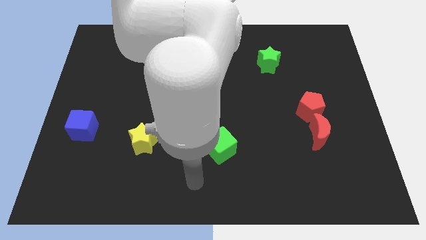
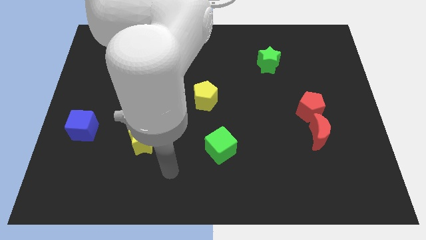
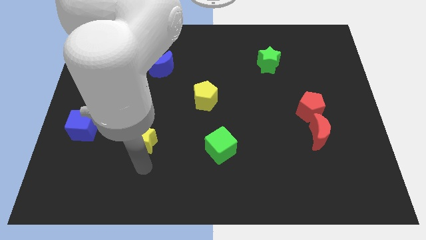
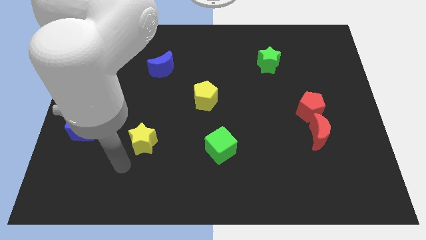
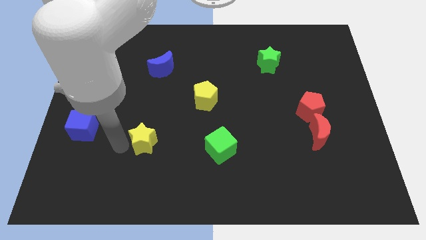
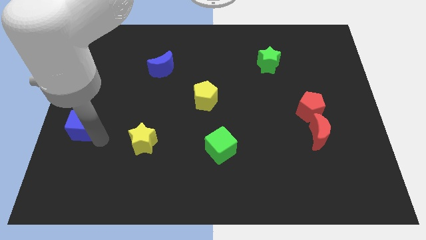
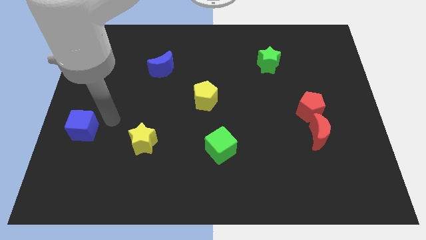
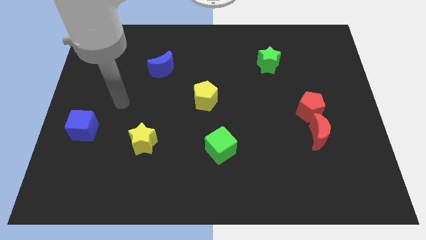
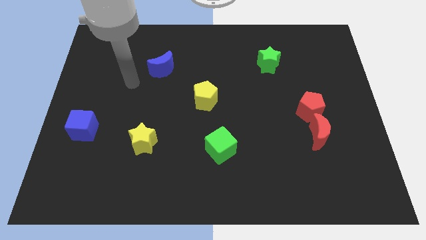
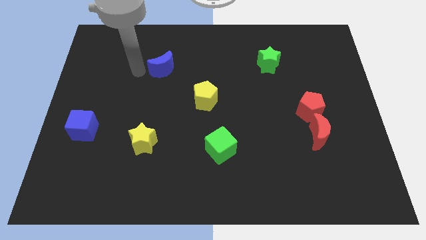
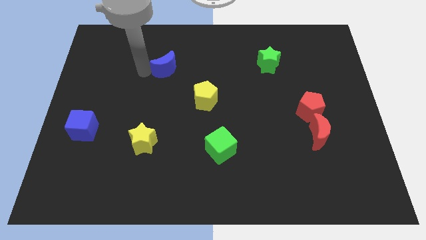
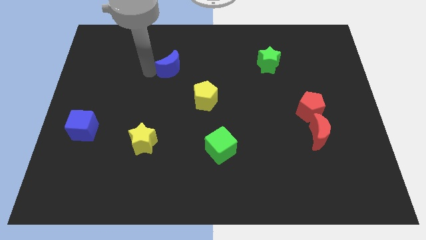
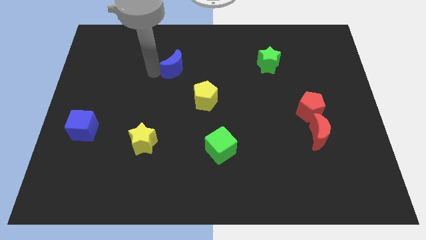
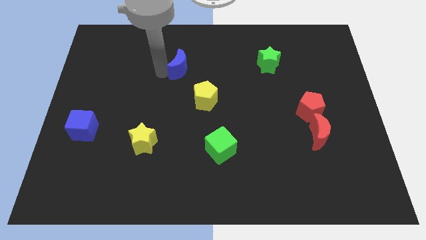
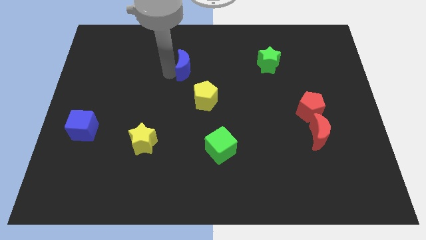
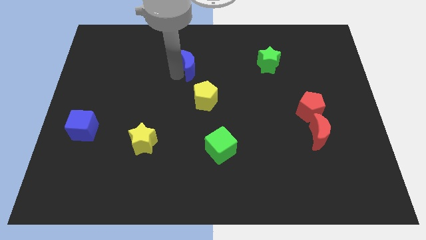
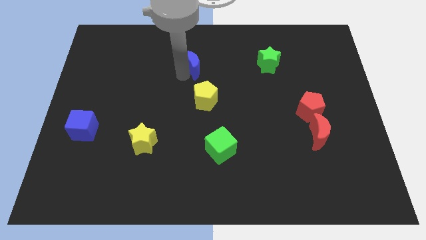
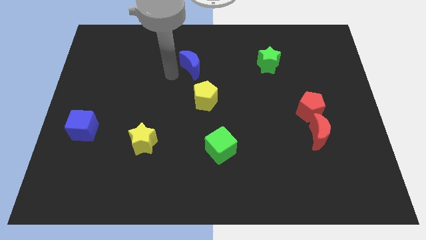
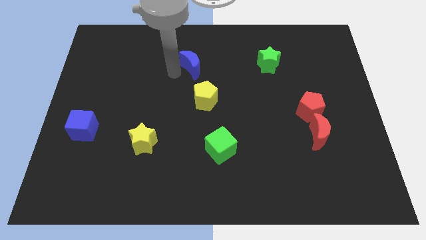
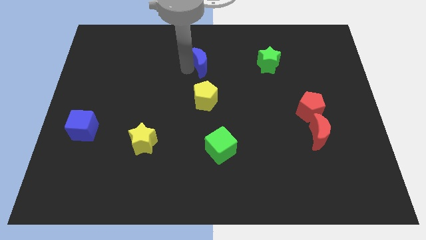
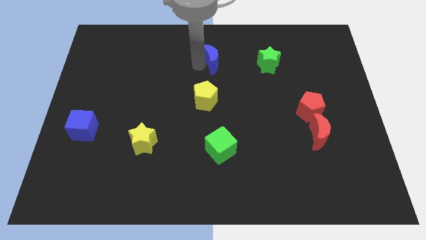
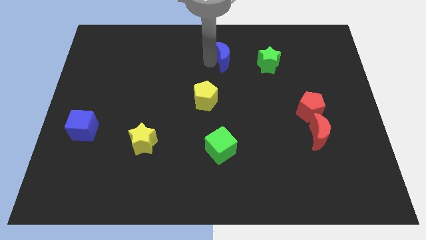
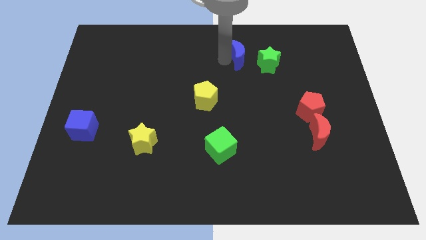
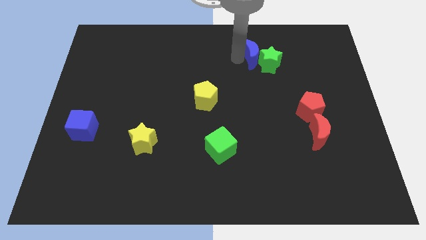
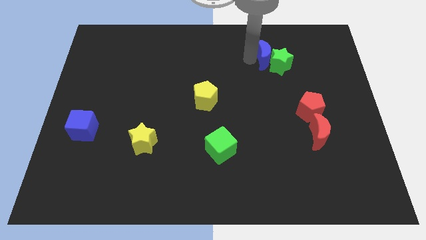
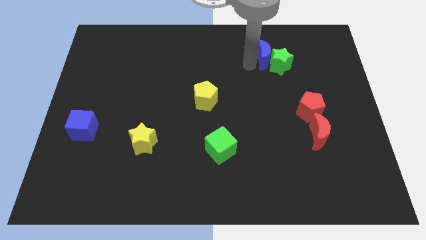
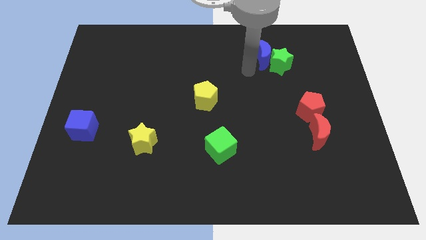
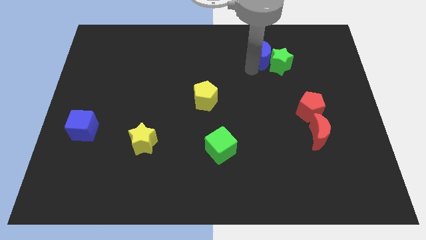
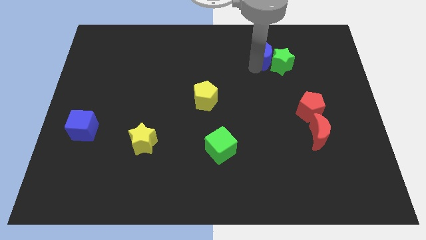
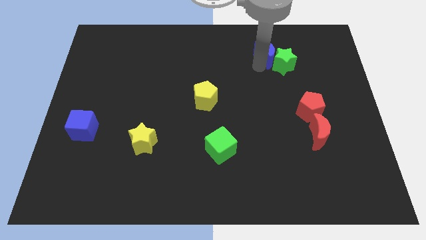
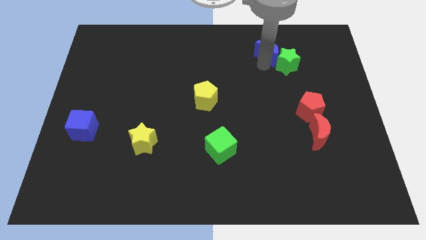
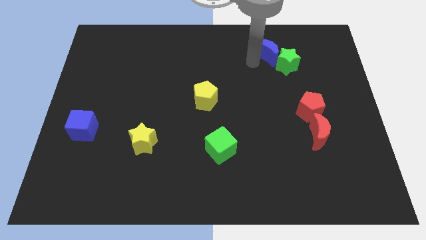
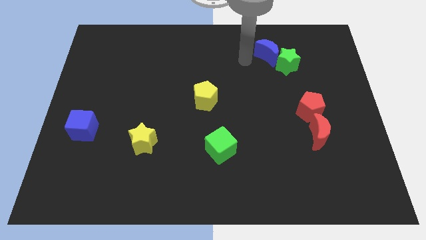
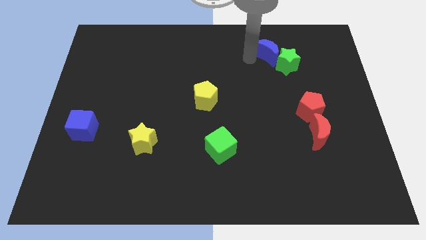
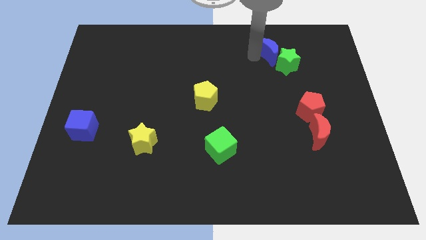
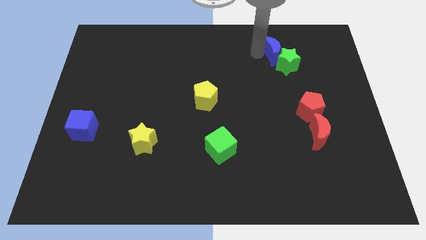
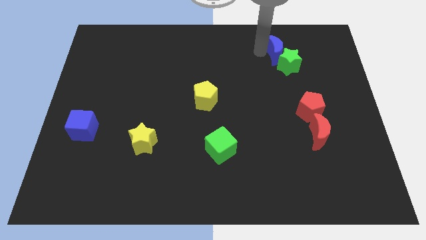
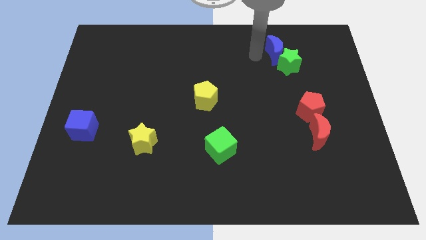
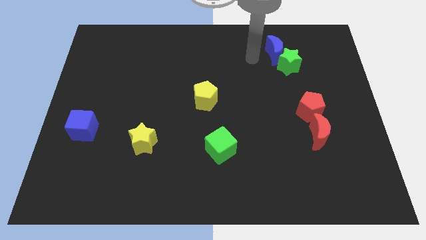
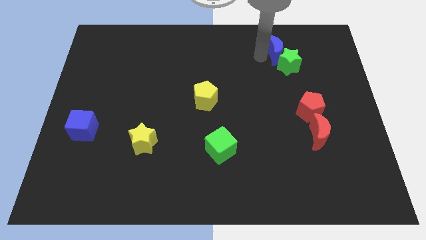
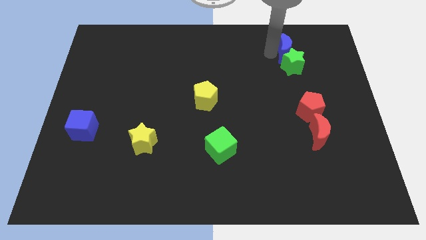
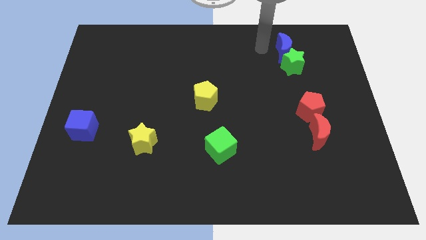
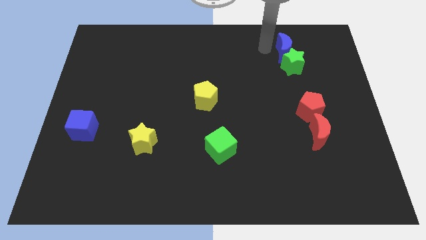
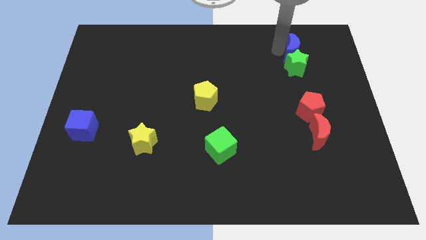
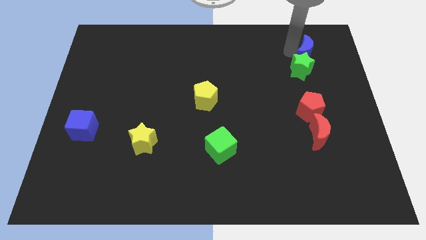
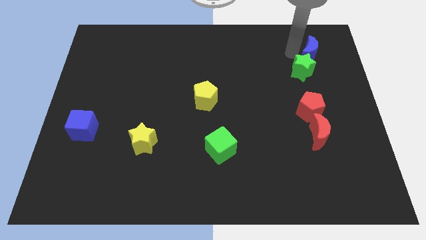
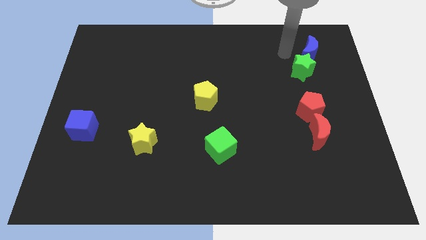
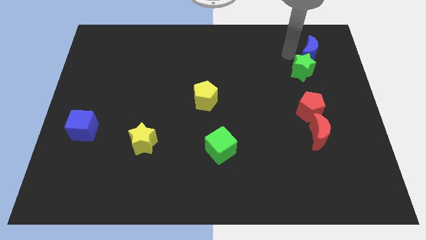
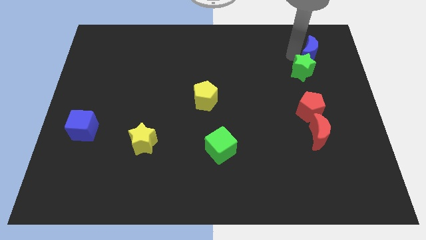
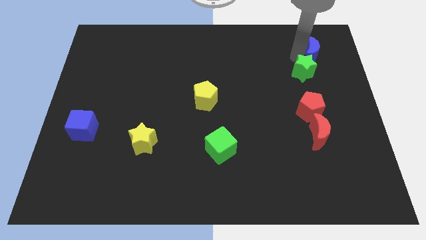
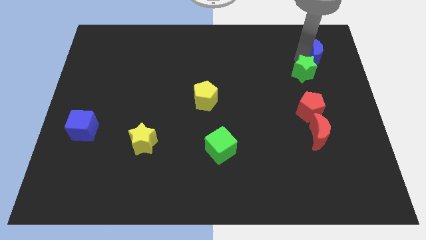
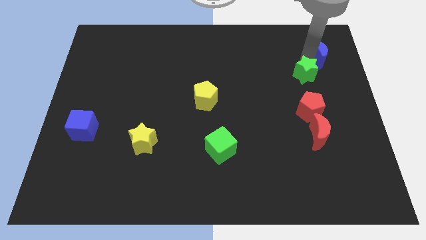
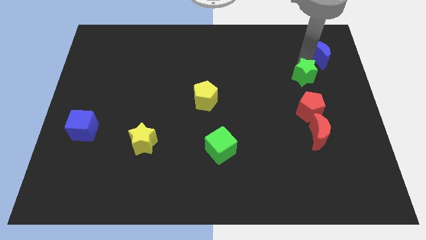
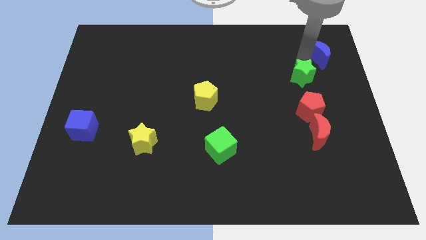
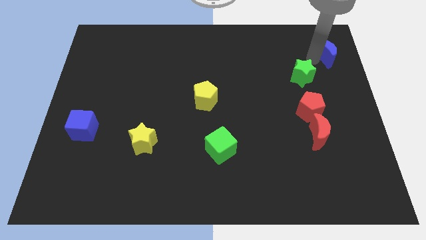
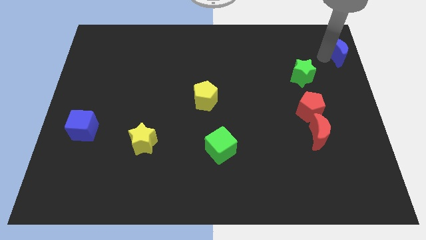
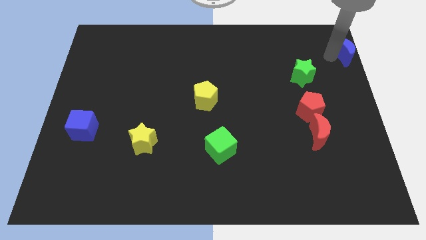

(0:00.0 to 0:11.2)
slide the blue moon to the top right of the board

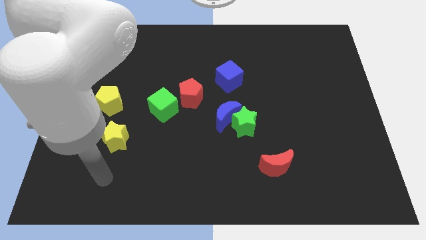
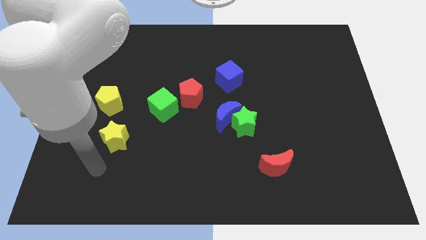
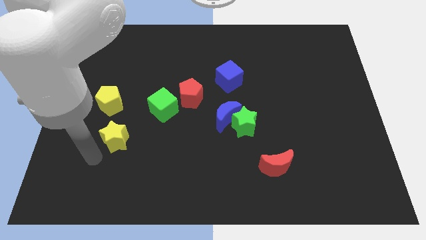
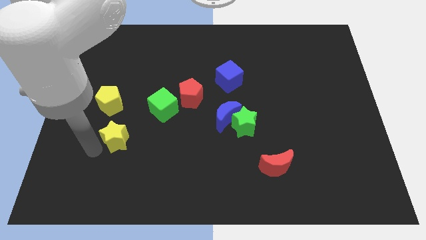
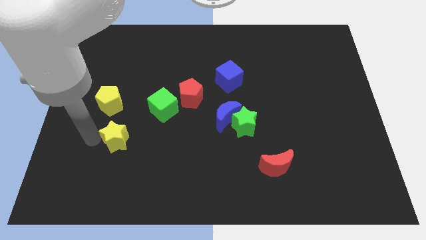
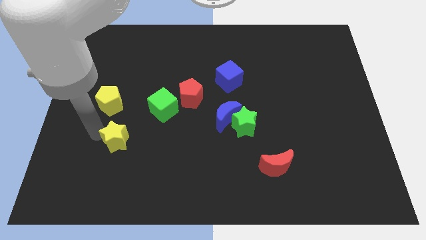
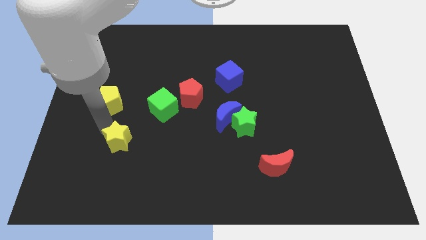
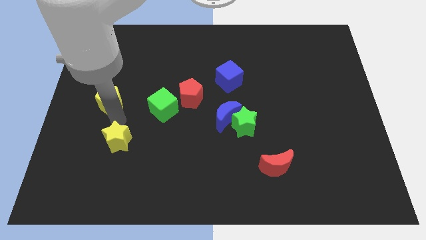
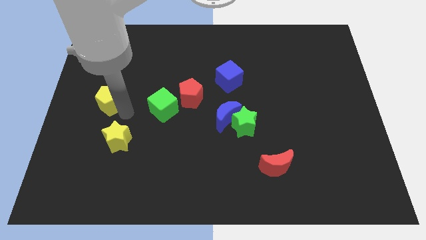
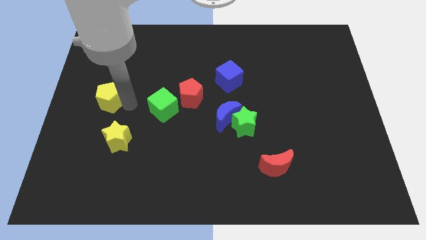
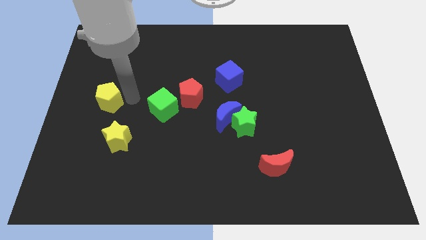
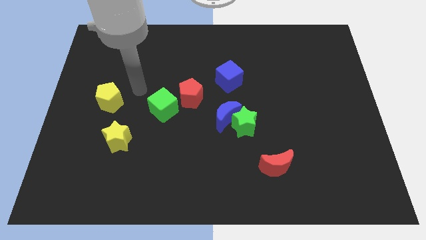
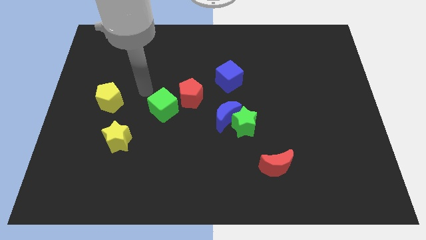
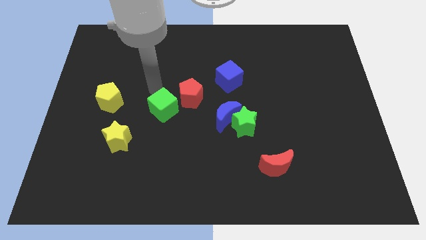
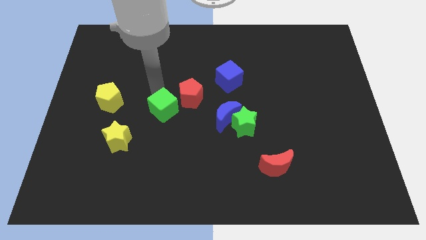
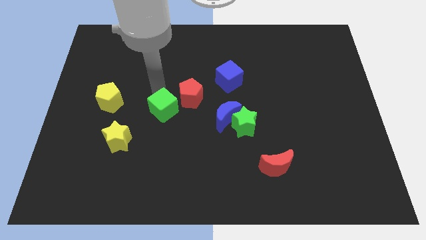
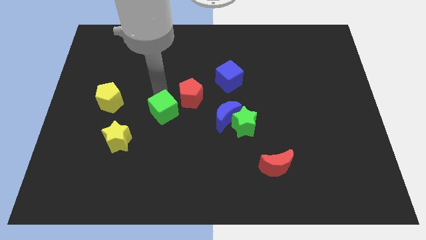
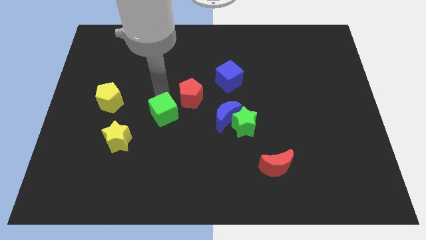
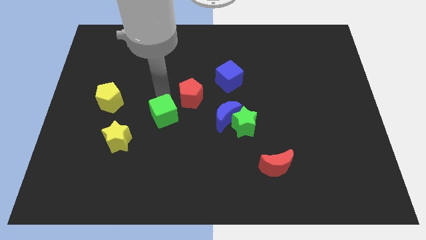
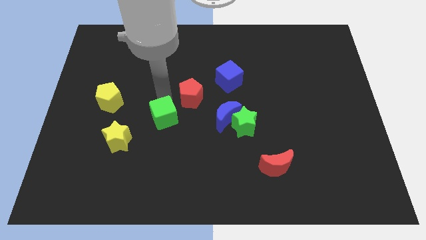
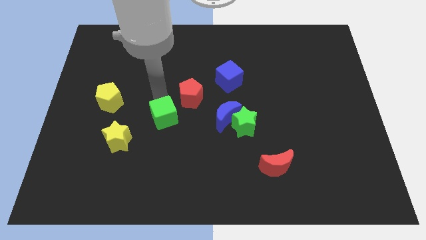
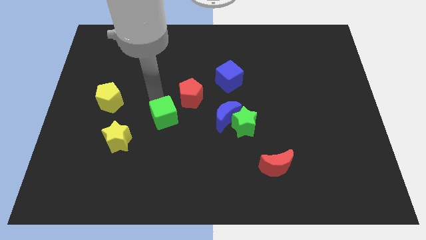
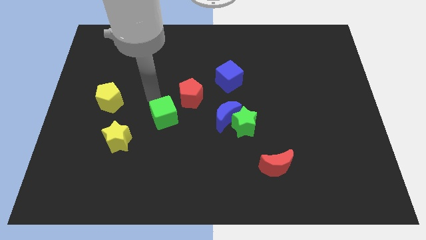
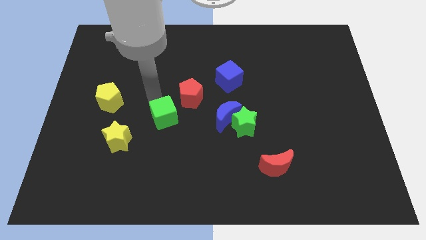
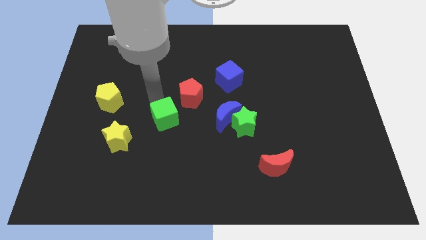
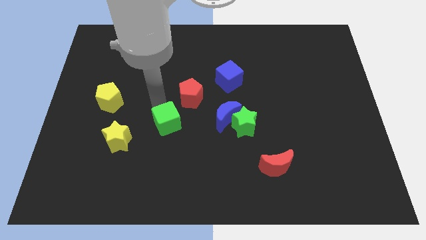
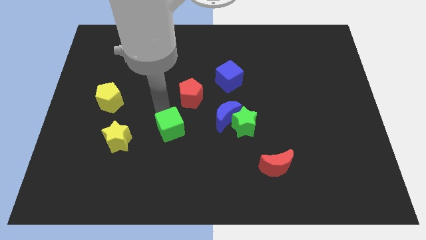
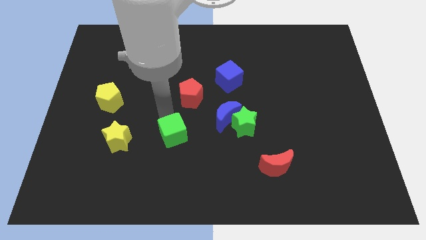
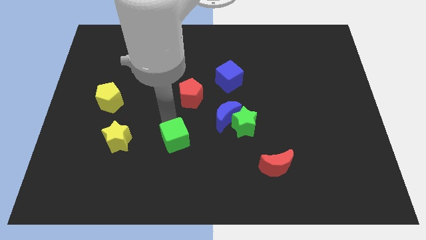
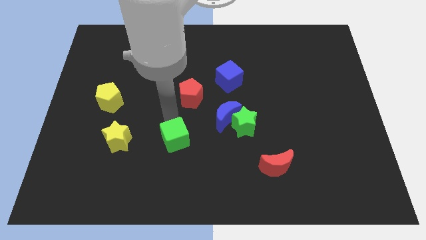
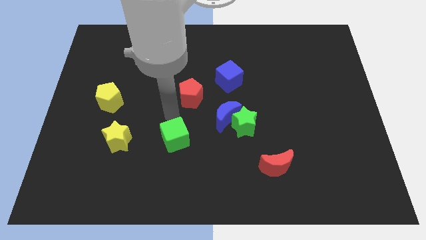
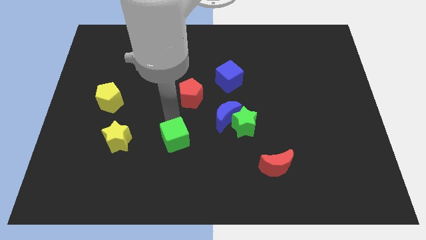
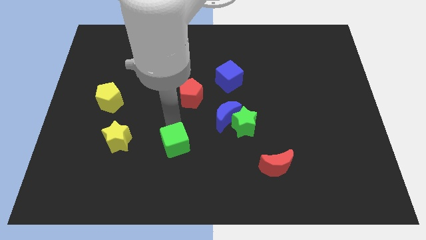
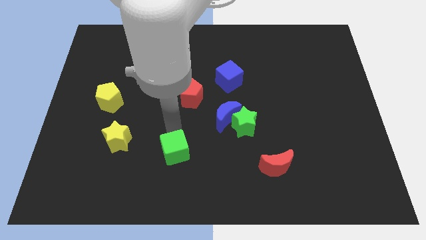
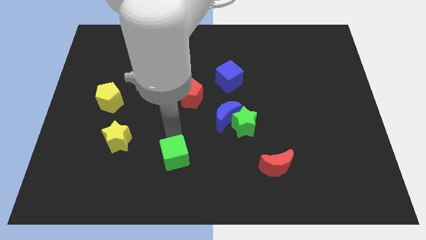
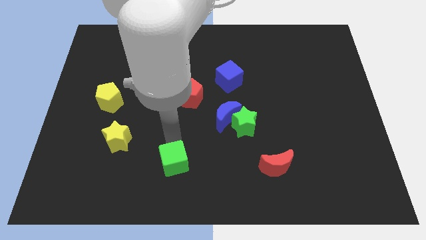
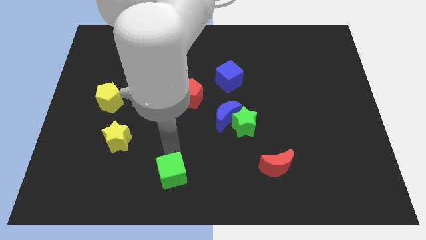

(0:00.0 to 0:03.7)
push the green cube to the bottom side
